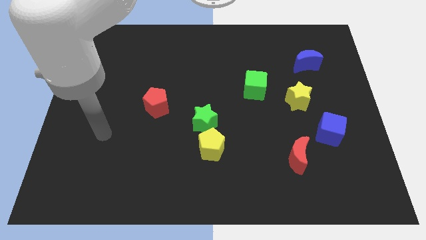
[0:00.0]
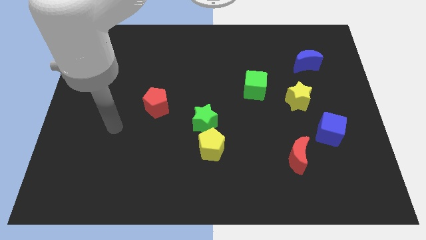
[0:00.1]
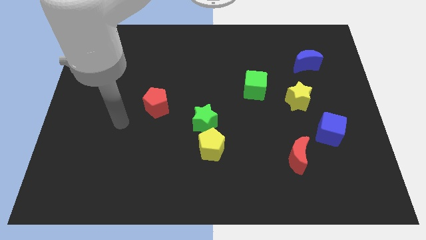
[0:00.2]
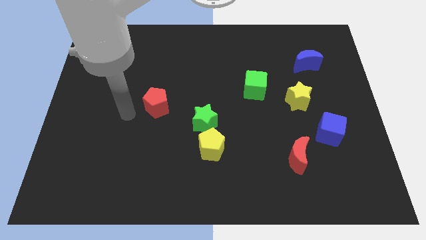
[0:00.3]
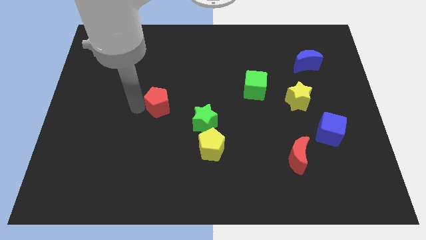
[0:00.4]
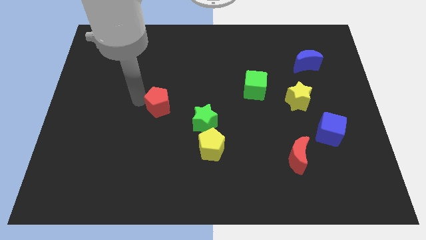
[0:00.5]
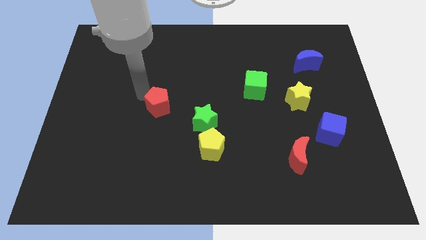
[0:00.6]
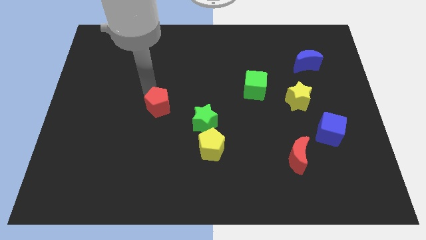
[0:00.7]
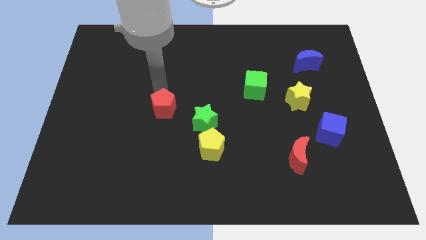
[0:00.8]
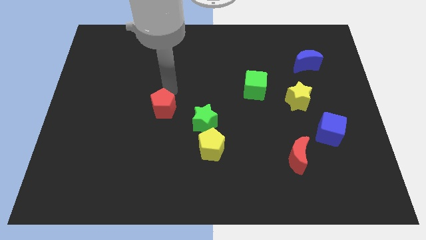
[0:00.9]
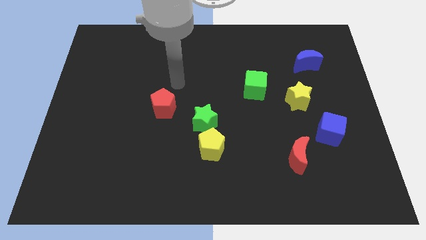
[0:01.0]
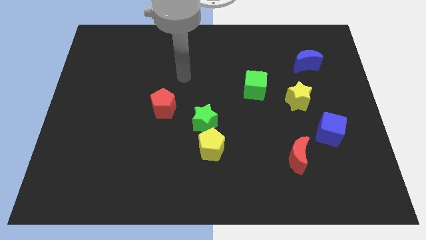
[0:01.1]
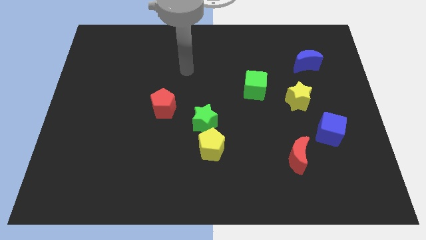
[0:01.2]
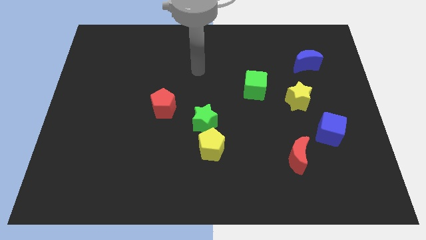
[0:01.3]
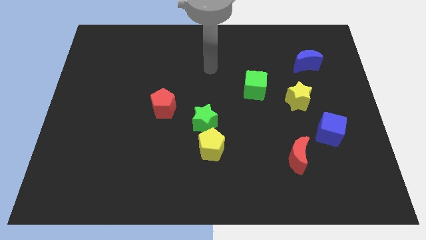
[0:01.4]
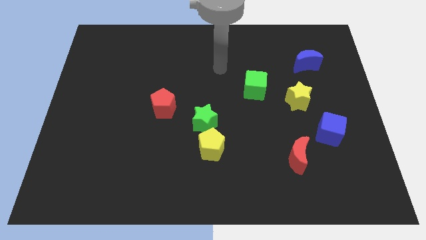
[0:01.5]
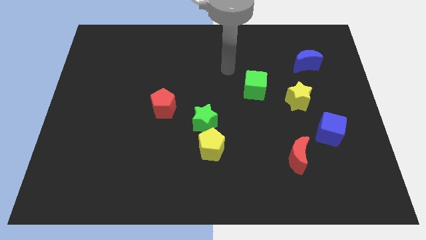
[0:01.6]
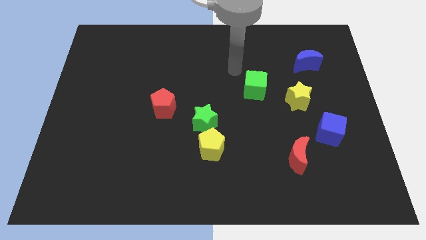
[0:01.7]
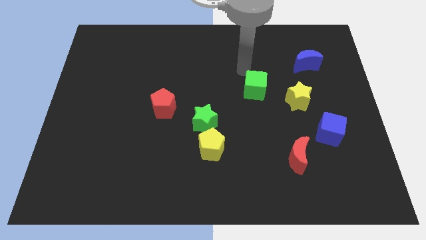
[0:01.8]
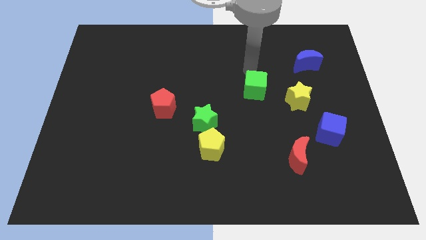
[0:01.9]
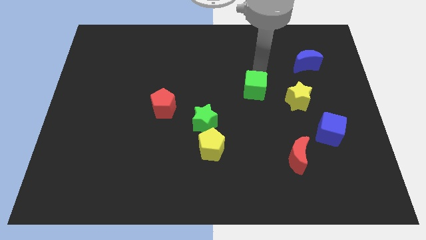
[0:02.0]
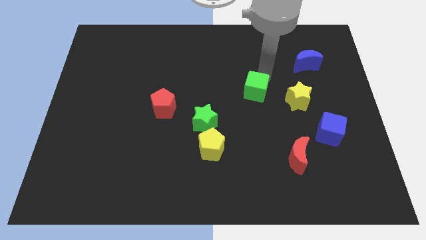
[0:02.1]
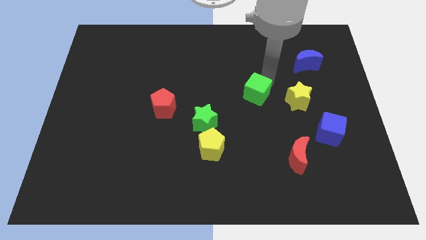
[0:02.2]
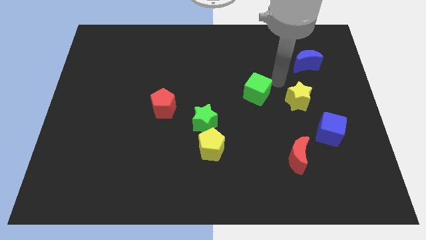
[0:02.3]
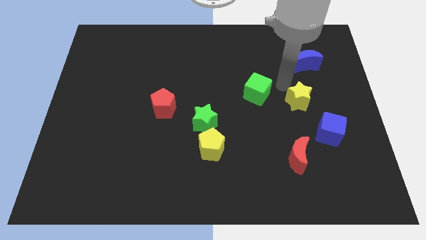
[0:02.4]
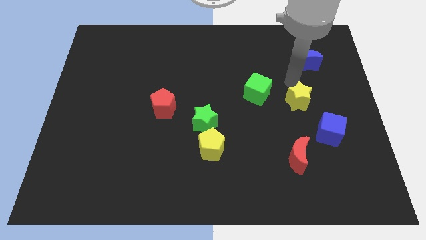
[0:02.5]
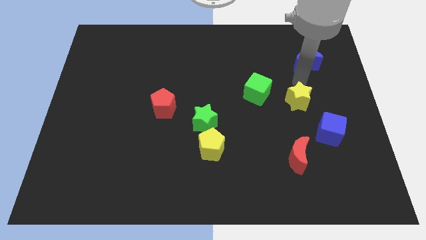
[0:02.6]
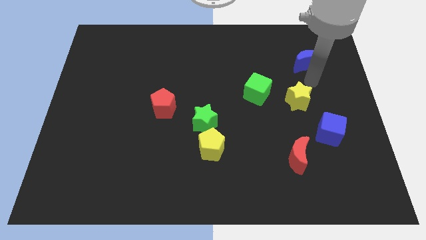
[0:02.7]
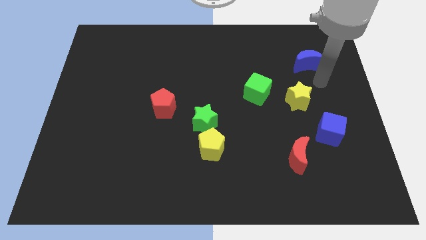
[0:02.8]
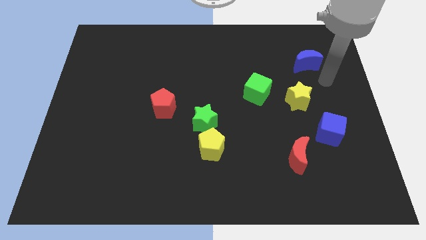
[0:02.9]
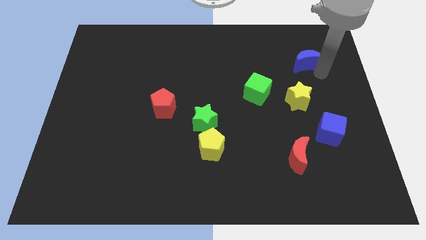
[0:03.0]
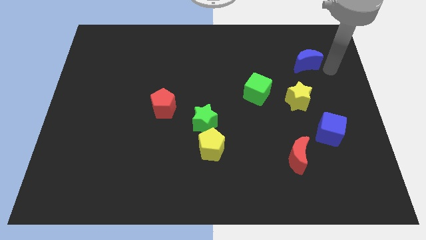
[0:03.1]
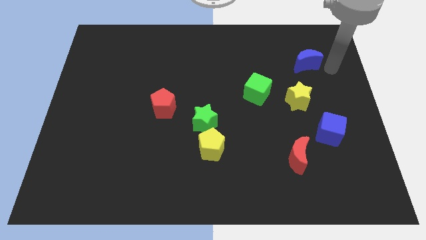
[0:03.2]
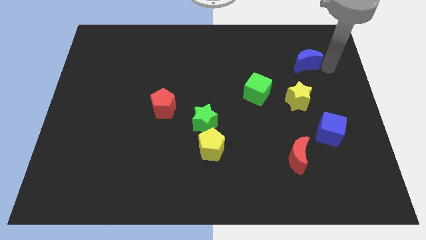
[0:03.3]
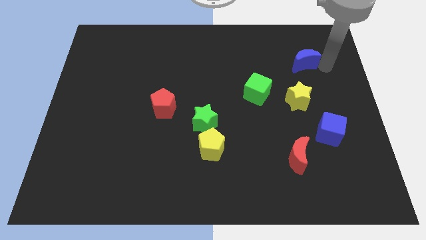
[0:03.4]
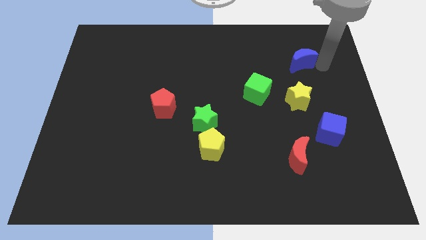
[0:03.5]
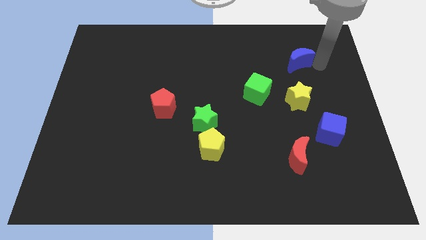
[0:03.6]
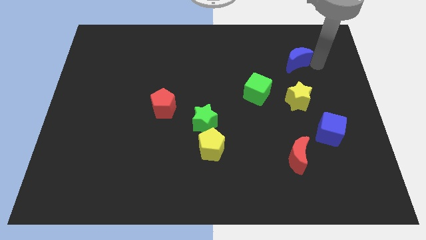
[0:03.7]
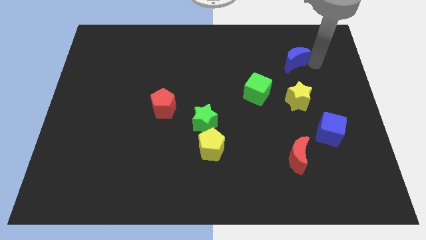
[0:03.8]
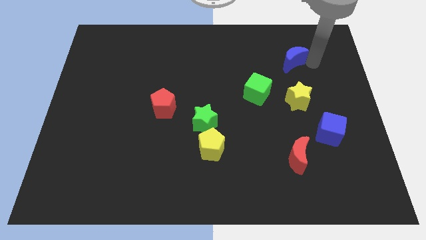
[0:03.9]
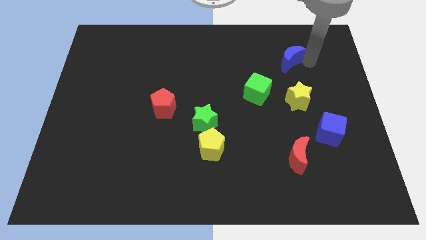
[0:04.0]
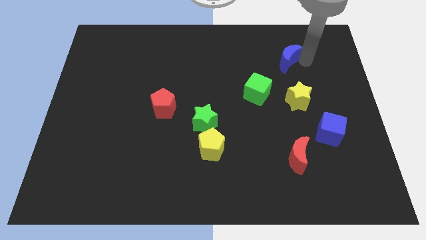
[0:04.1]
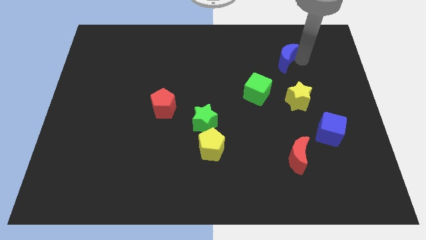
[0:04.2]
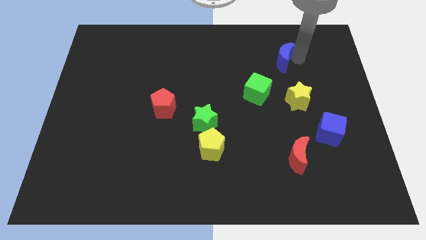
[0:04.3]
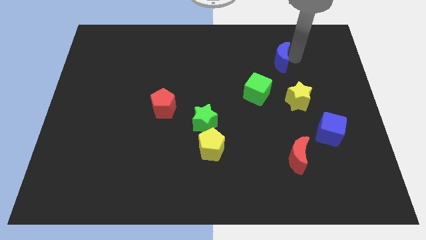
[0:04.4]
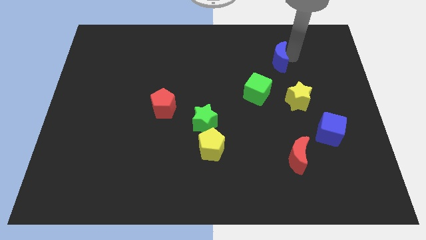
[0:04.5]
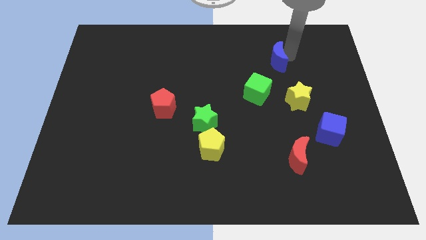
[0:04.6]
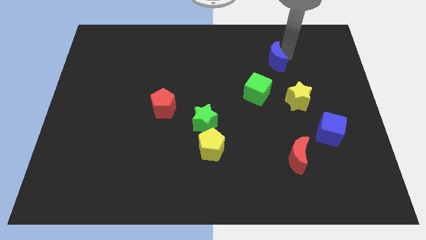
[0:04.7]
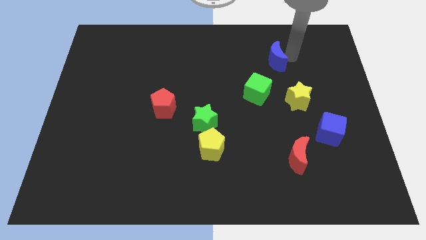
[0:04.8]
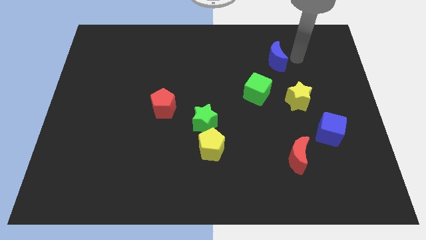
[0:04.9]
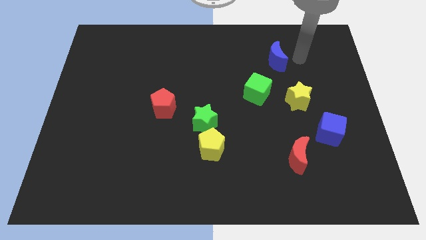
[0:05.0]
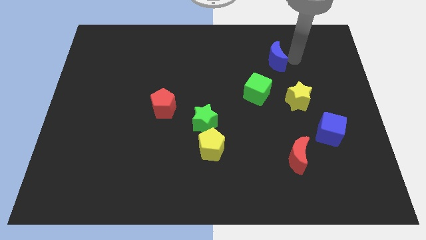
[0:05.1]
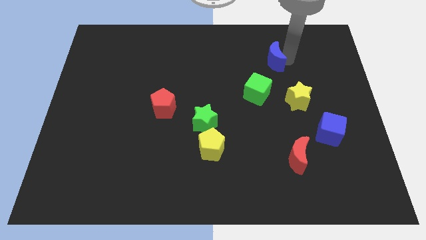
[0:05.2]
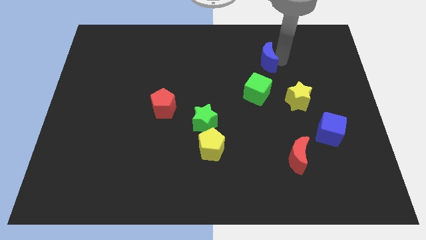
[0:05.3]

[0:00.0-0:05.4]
push the blue moon to the top of the green cube

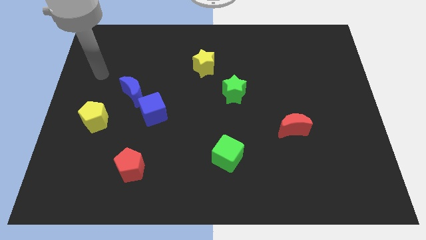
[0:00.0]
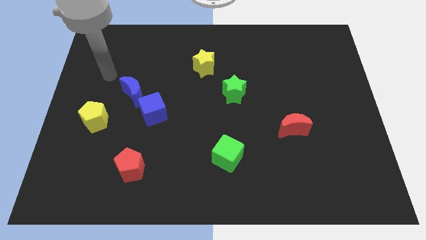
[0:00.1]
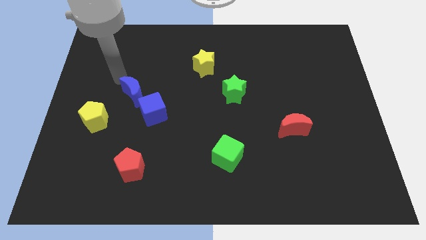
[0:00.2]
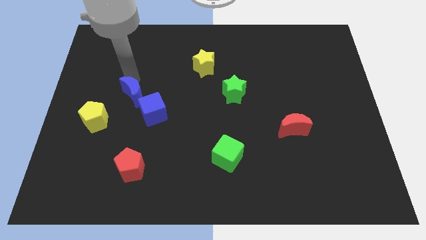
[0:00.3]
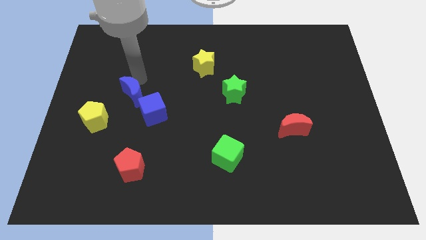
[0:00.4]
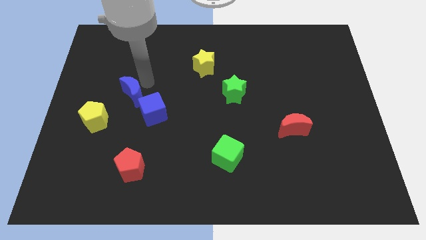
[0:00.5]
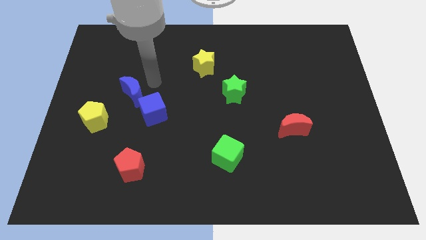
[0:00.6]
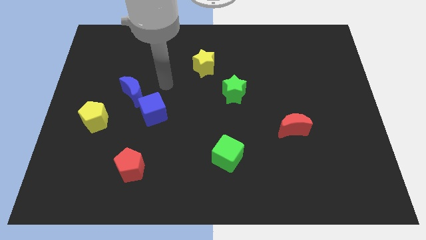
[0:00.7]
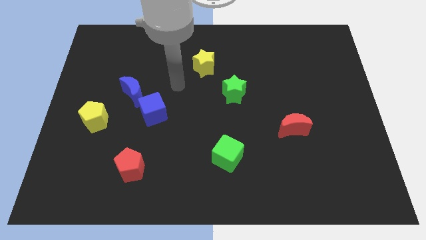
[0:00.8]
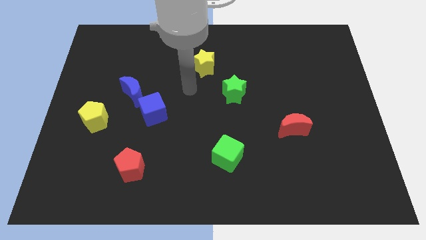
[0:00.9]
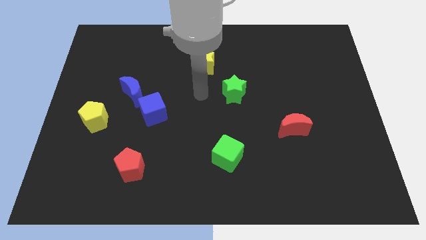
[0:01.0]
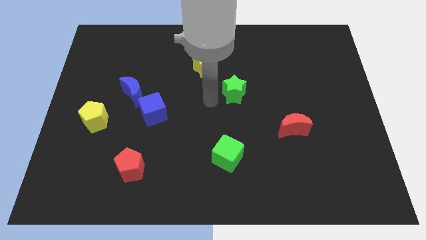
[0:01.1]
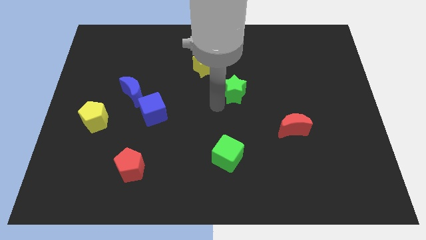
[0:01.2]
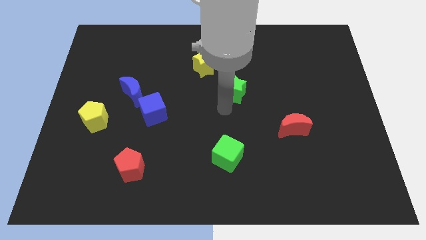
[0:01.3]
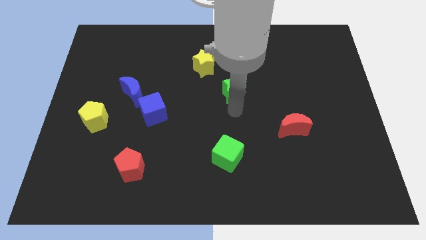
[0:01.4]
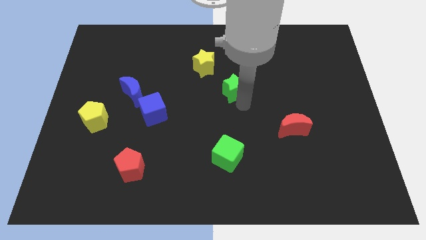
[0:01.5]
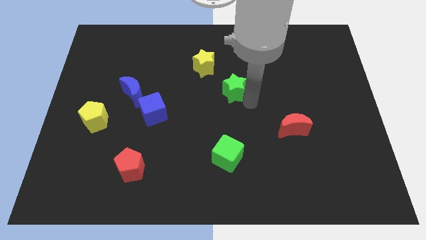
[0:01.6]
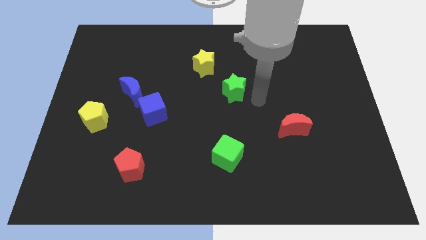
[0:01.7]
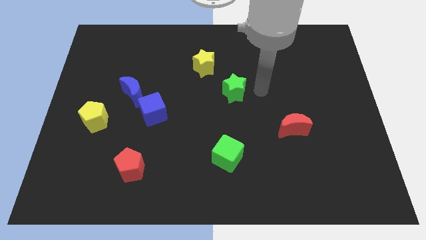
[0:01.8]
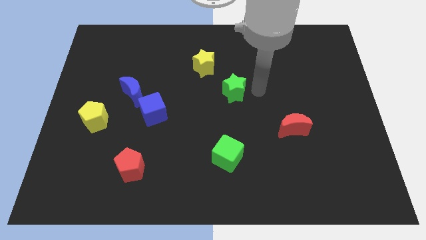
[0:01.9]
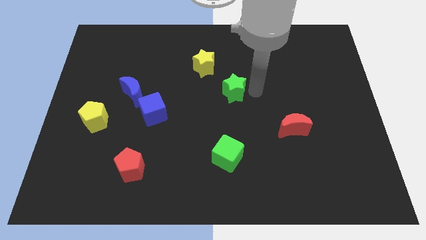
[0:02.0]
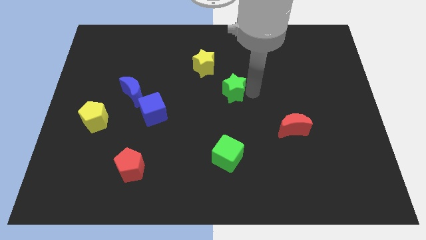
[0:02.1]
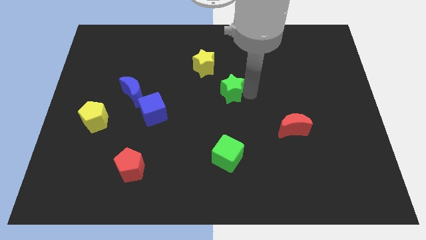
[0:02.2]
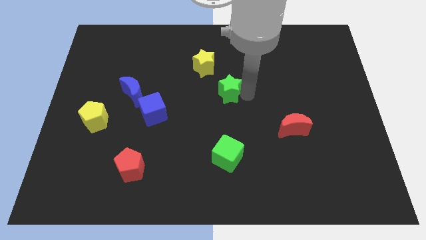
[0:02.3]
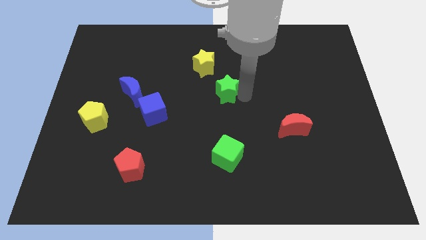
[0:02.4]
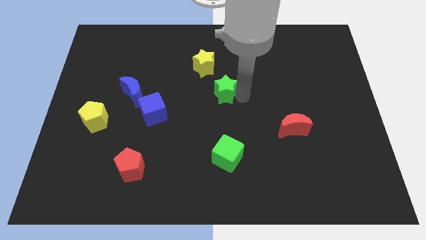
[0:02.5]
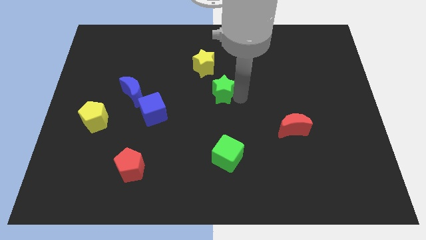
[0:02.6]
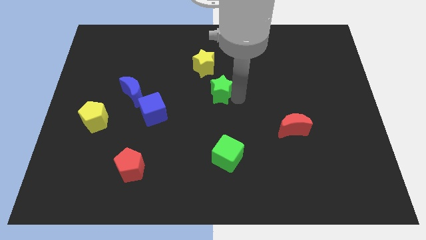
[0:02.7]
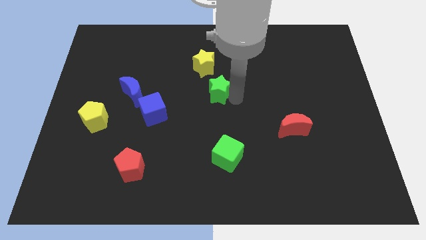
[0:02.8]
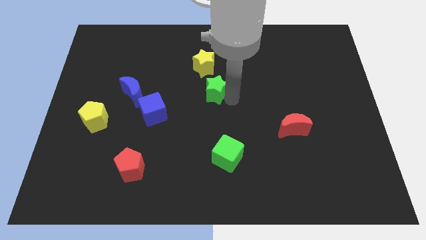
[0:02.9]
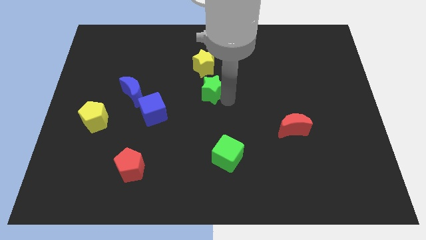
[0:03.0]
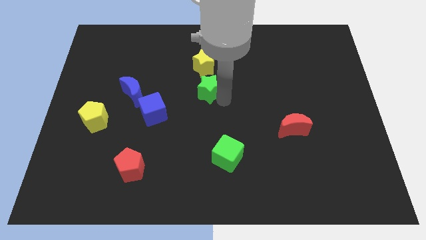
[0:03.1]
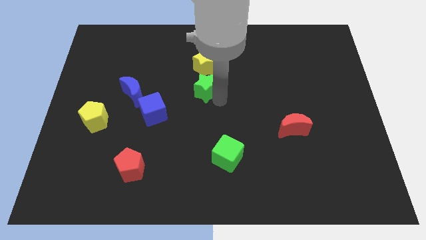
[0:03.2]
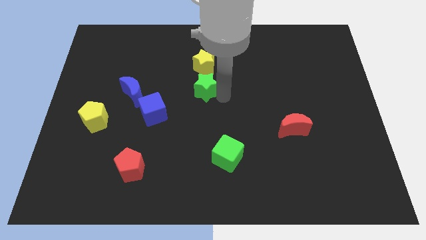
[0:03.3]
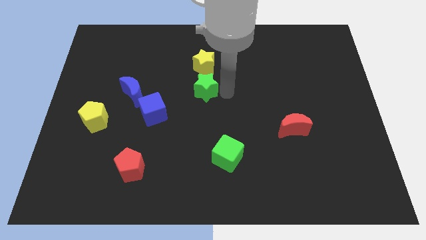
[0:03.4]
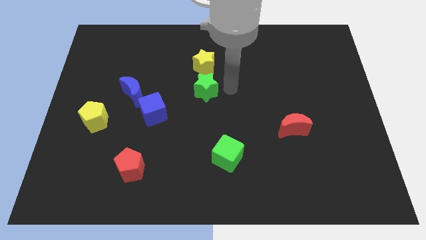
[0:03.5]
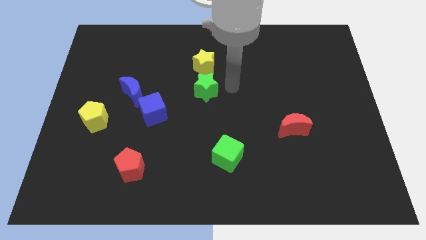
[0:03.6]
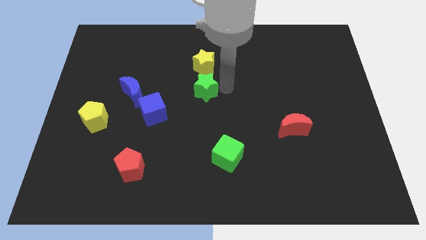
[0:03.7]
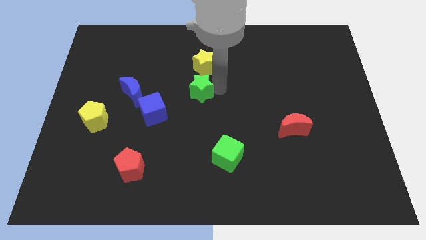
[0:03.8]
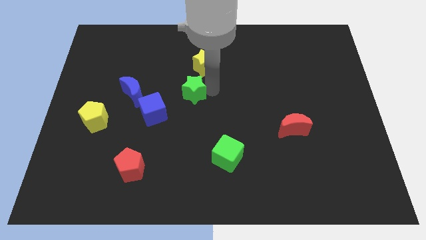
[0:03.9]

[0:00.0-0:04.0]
move the green star diagonally up and to the right of the blue cube
